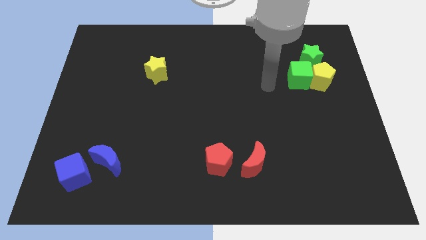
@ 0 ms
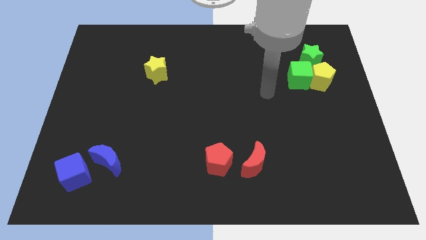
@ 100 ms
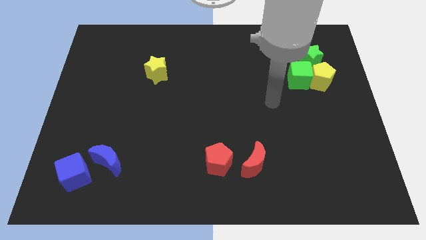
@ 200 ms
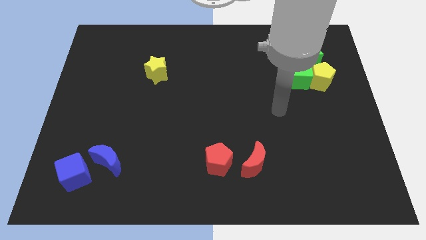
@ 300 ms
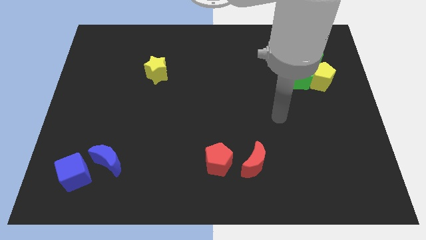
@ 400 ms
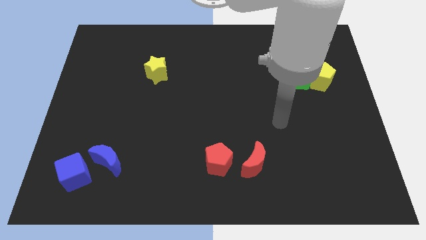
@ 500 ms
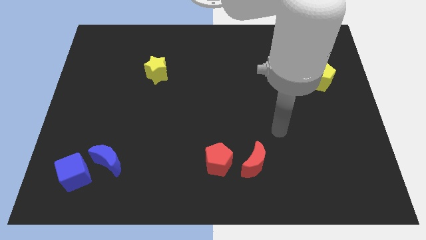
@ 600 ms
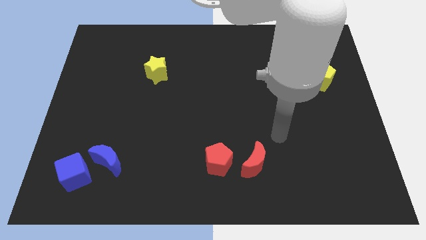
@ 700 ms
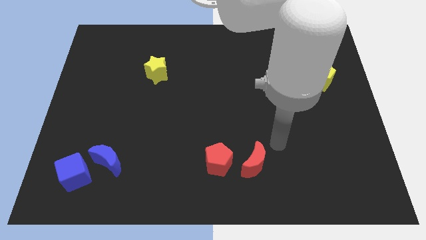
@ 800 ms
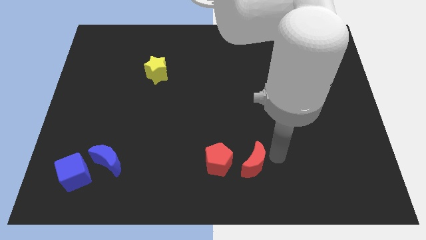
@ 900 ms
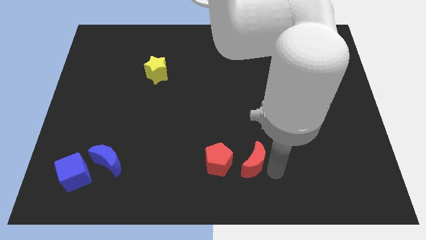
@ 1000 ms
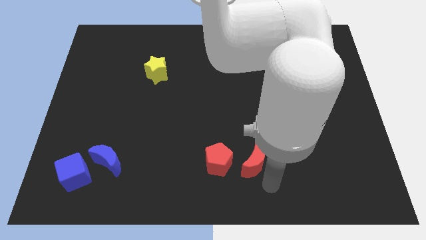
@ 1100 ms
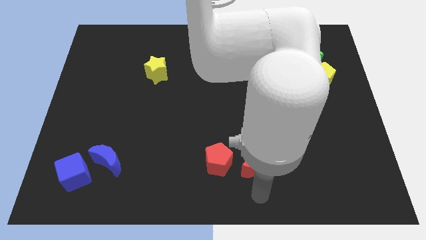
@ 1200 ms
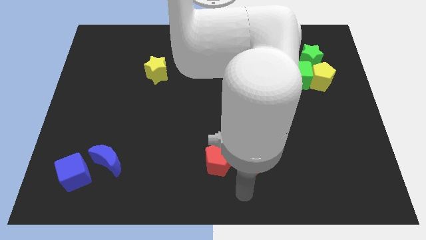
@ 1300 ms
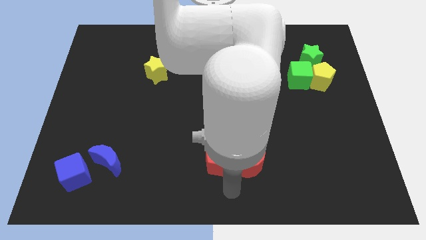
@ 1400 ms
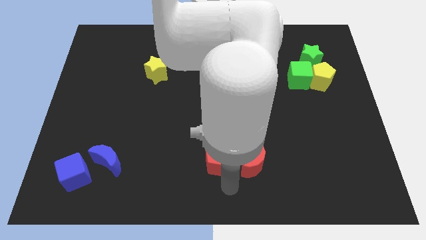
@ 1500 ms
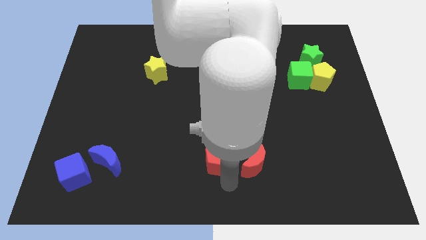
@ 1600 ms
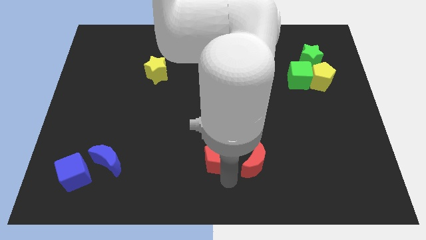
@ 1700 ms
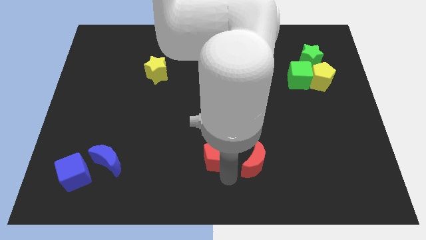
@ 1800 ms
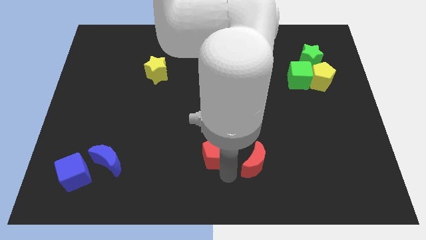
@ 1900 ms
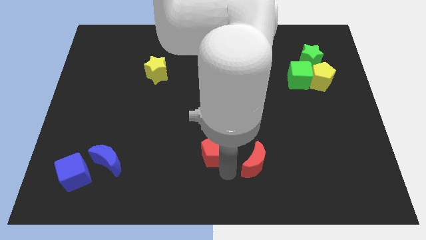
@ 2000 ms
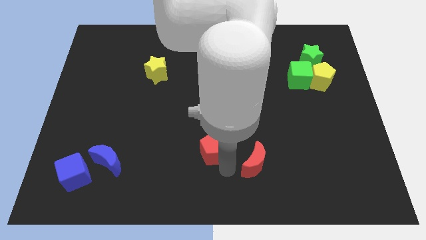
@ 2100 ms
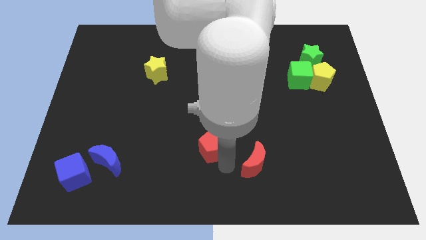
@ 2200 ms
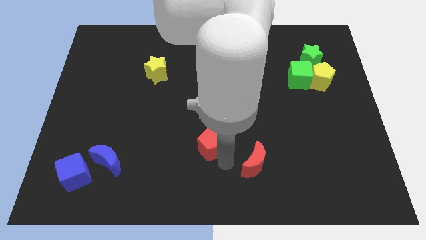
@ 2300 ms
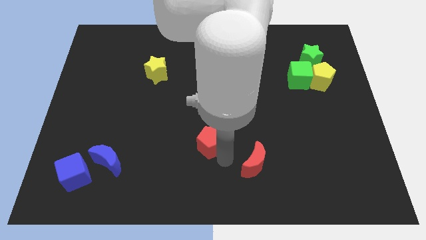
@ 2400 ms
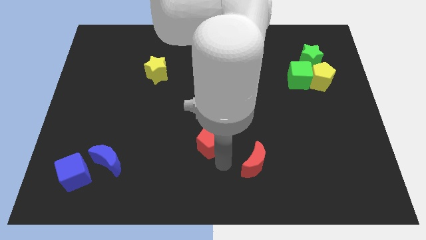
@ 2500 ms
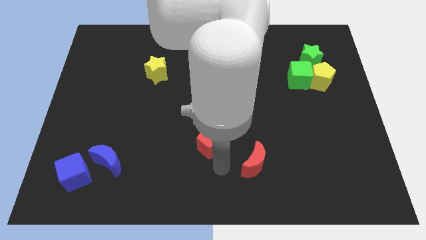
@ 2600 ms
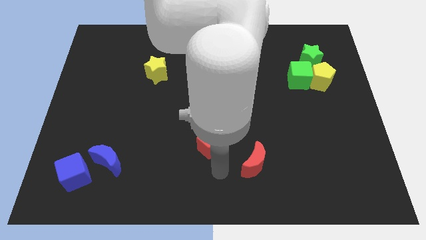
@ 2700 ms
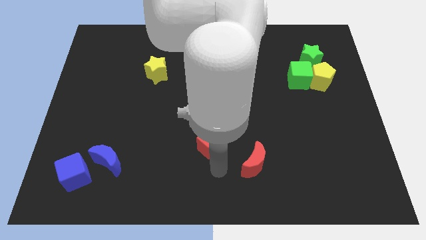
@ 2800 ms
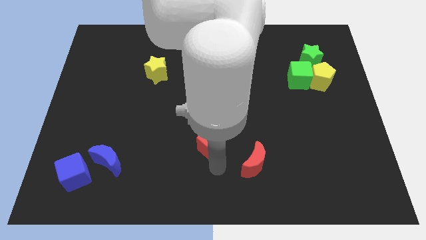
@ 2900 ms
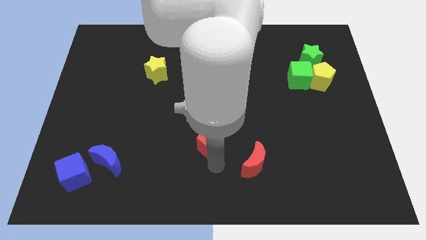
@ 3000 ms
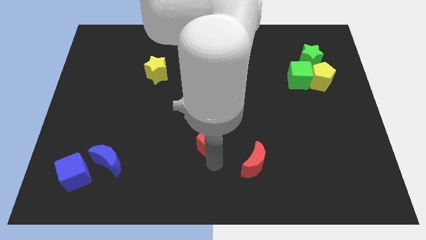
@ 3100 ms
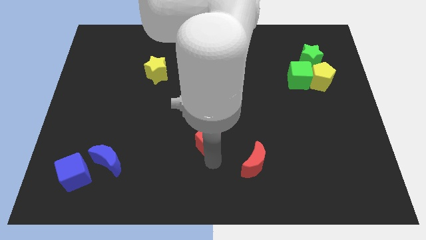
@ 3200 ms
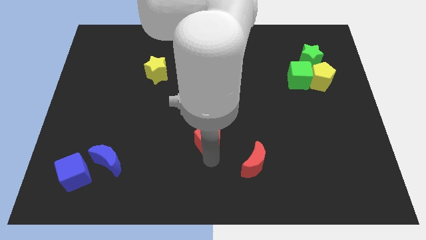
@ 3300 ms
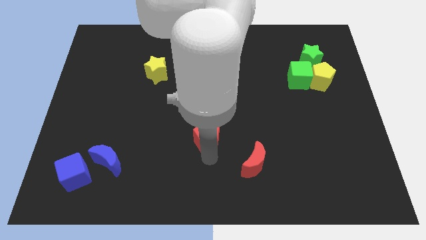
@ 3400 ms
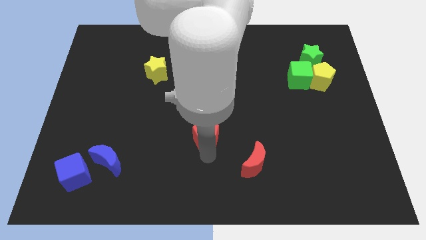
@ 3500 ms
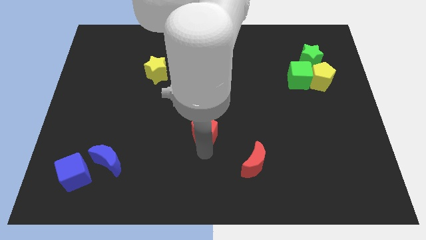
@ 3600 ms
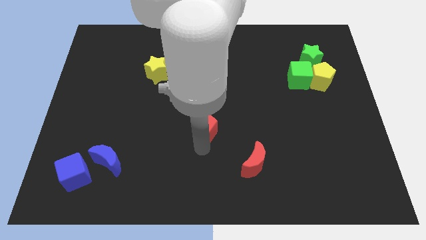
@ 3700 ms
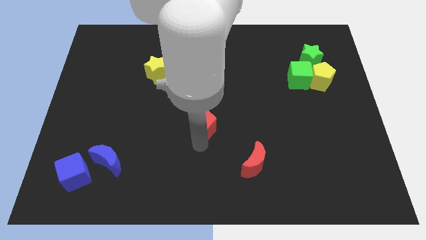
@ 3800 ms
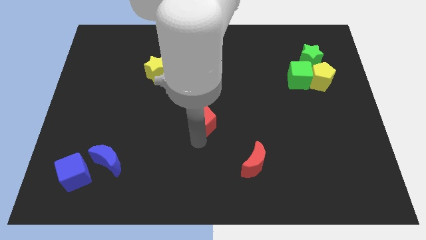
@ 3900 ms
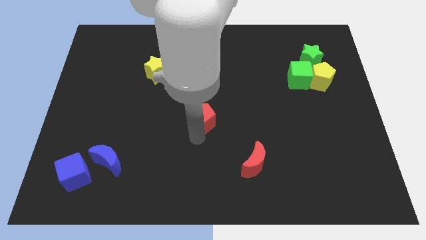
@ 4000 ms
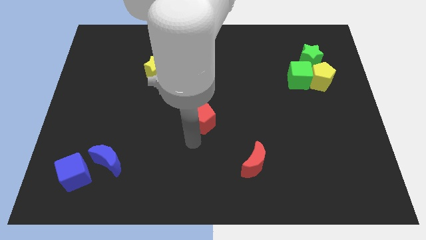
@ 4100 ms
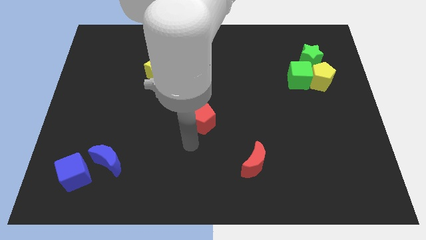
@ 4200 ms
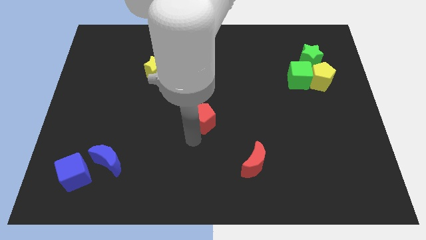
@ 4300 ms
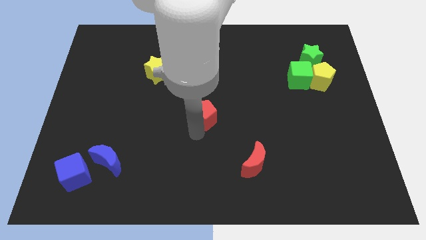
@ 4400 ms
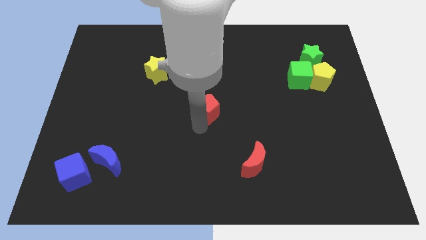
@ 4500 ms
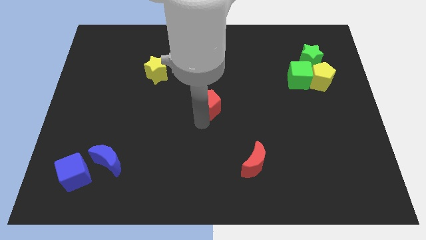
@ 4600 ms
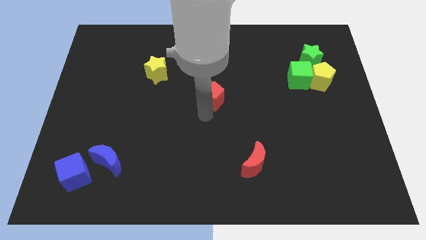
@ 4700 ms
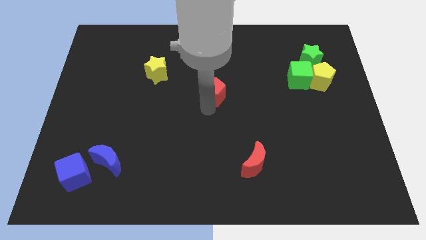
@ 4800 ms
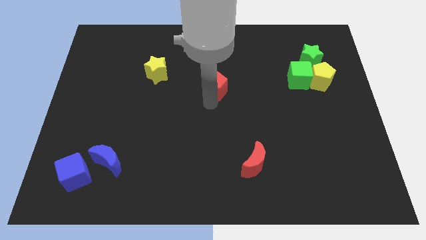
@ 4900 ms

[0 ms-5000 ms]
move the red pentagon upwards

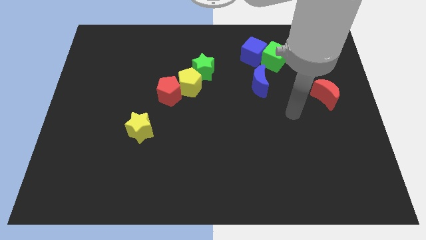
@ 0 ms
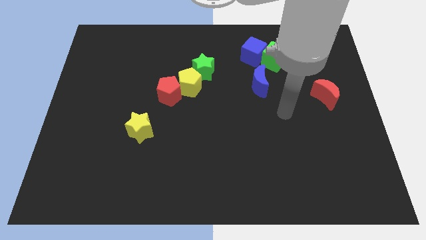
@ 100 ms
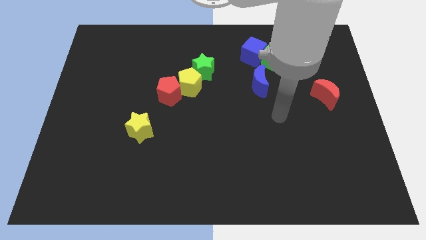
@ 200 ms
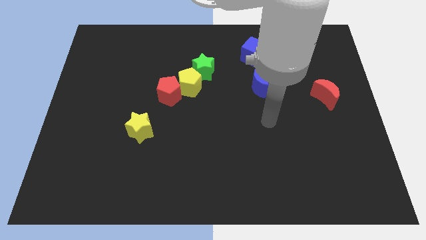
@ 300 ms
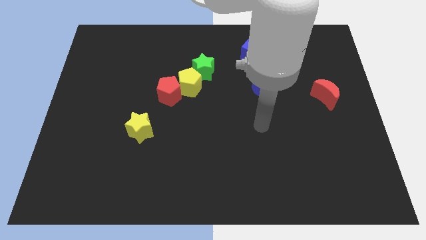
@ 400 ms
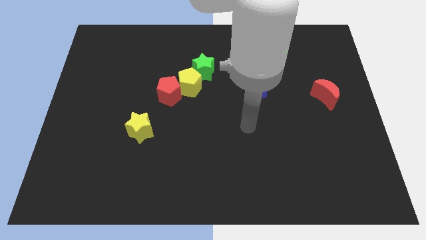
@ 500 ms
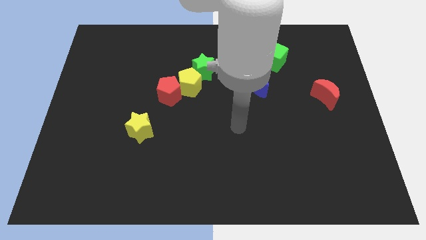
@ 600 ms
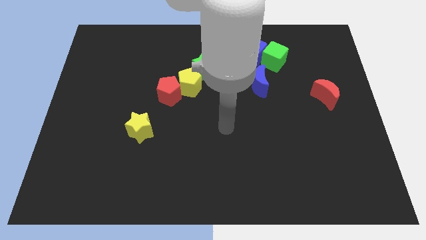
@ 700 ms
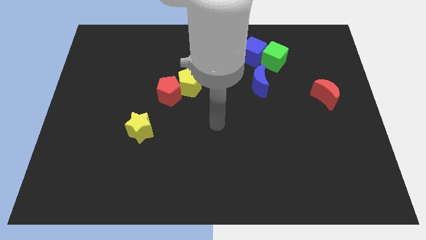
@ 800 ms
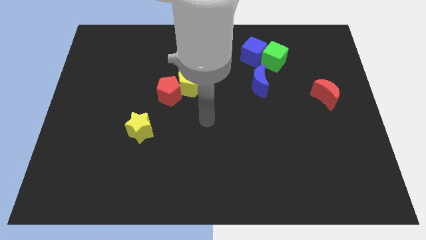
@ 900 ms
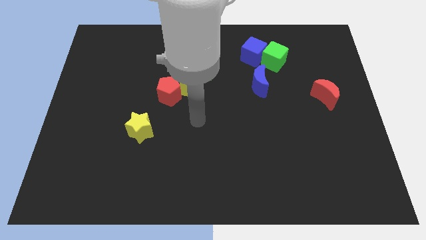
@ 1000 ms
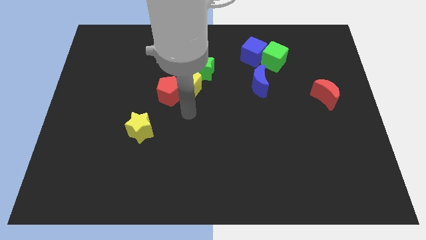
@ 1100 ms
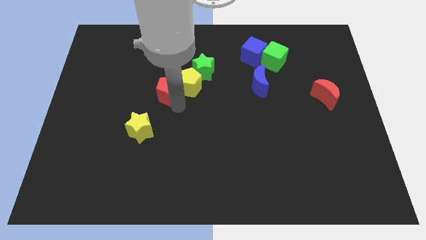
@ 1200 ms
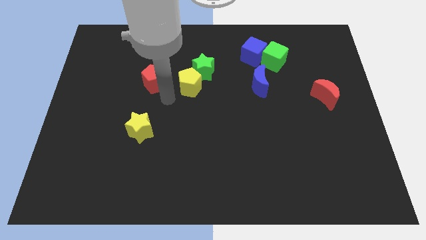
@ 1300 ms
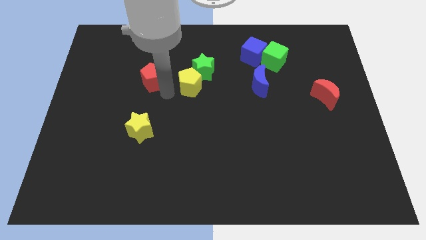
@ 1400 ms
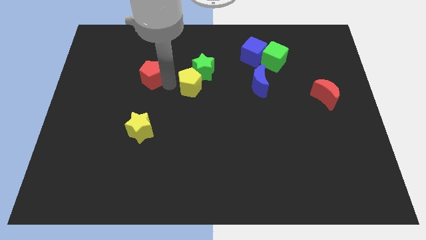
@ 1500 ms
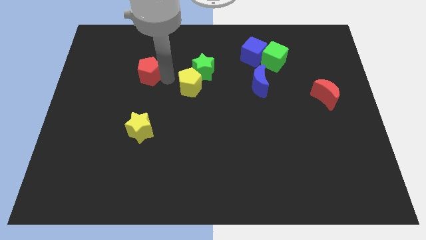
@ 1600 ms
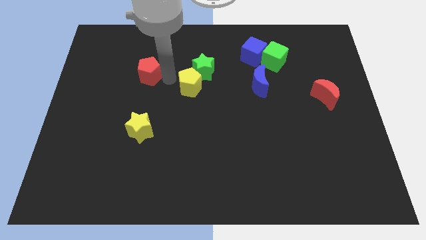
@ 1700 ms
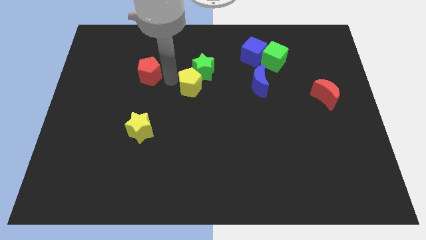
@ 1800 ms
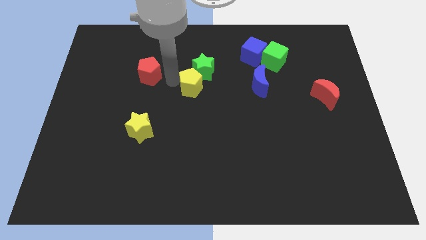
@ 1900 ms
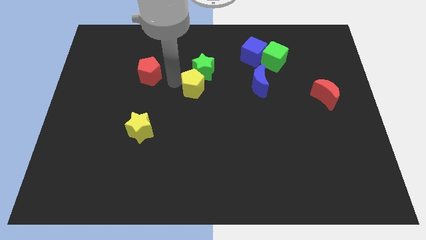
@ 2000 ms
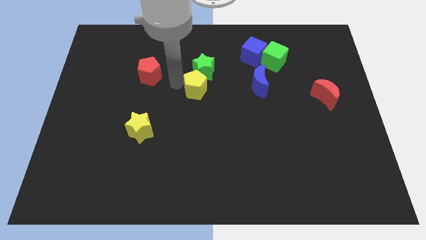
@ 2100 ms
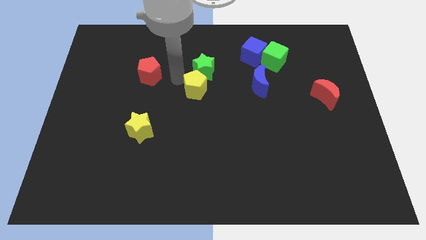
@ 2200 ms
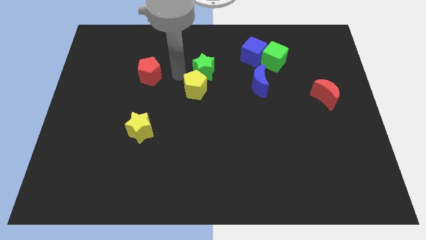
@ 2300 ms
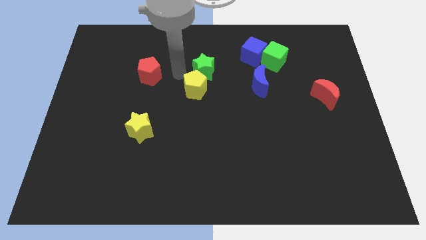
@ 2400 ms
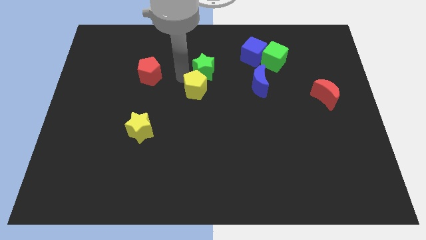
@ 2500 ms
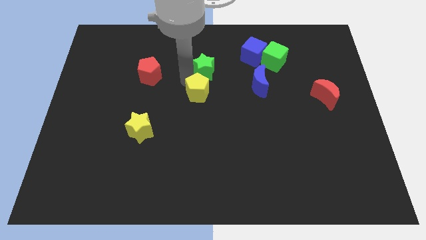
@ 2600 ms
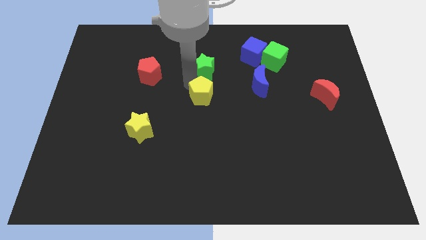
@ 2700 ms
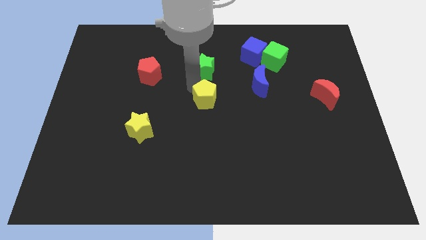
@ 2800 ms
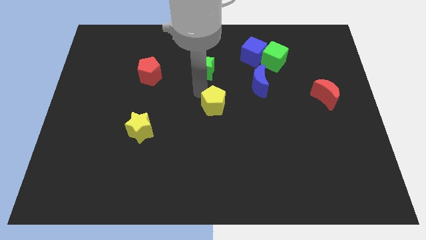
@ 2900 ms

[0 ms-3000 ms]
slightly slide the yellow pentagon downwards and right diagonally

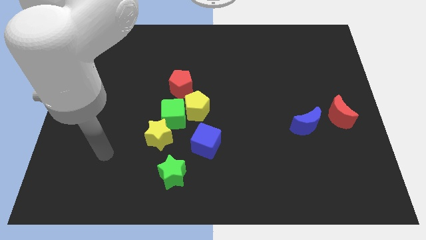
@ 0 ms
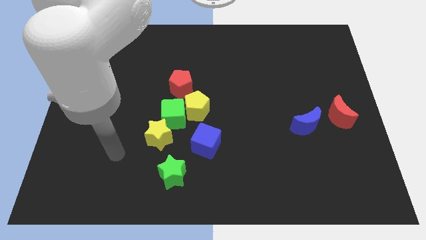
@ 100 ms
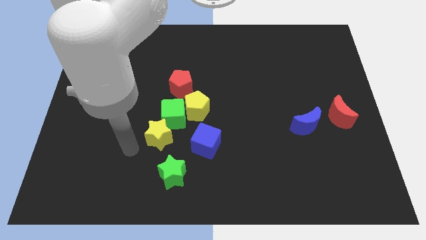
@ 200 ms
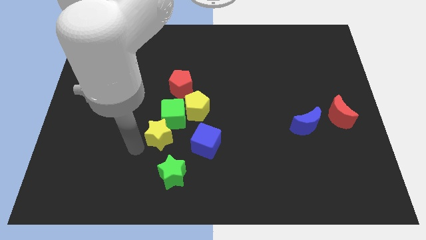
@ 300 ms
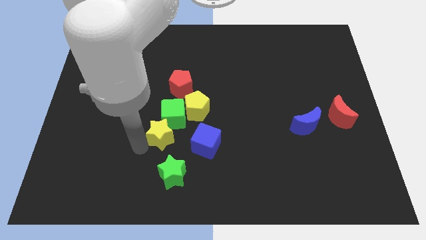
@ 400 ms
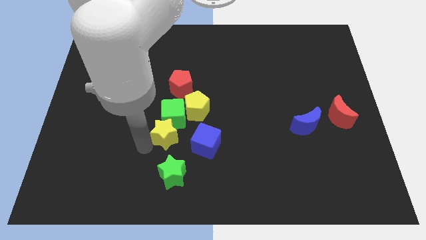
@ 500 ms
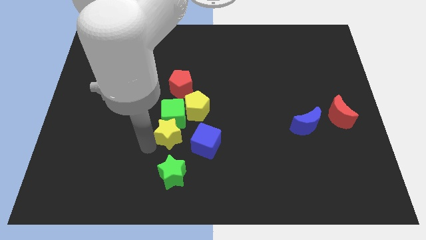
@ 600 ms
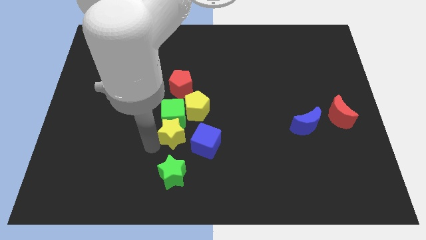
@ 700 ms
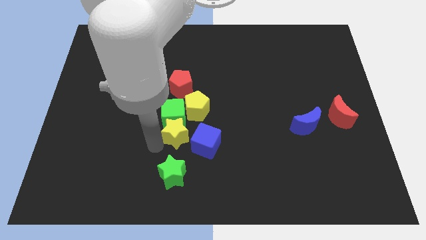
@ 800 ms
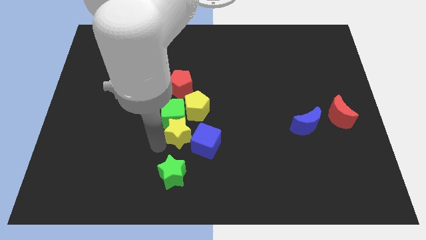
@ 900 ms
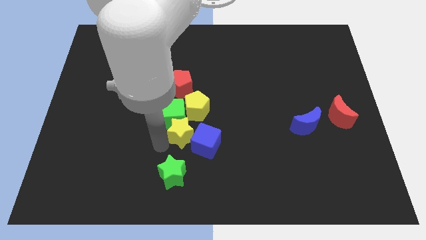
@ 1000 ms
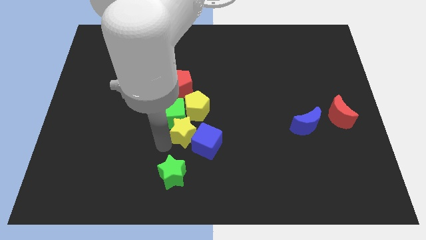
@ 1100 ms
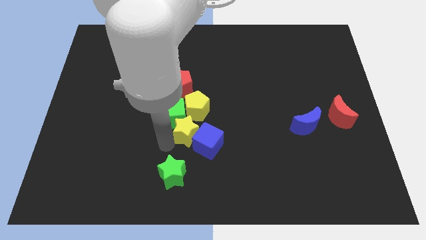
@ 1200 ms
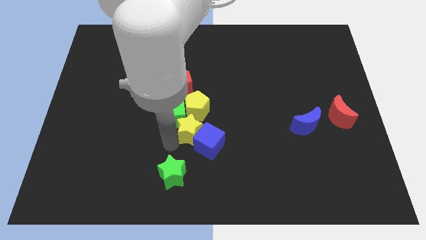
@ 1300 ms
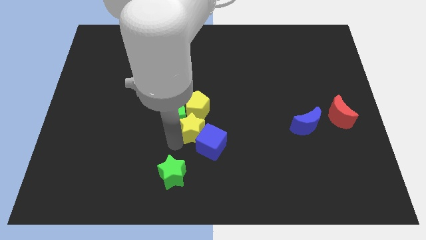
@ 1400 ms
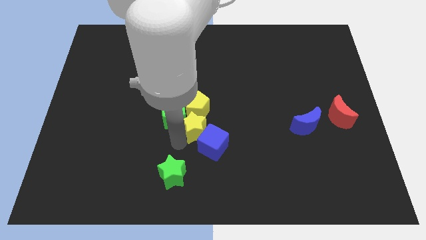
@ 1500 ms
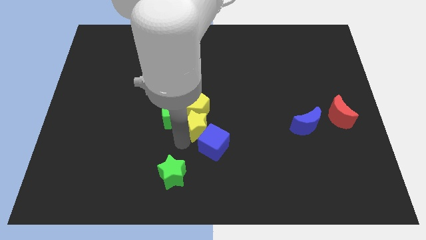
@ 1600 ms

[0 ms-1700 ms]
slightly push the yellow star upwards and to the right
